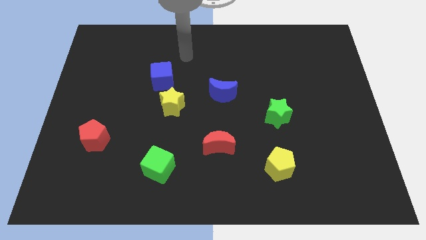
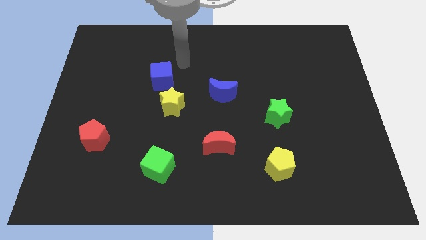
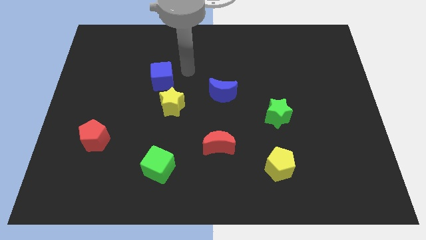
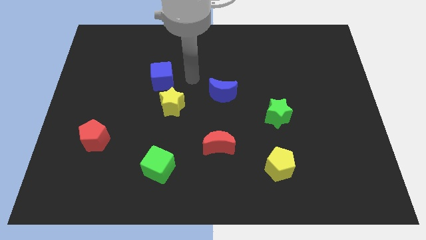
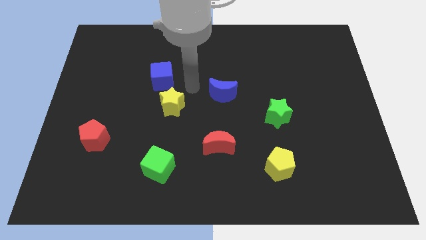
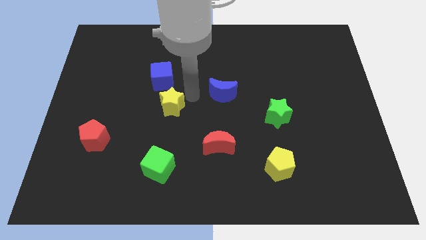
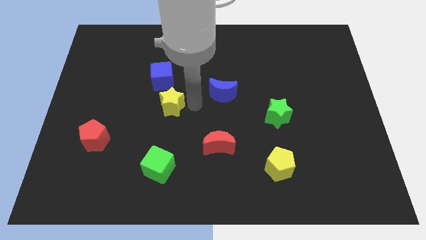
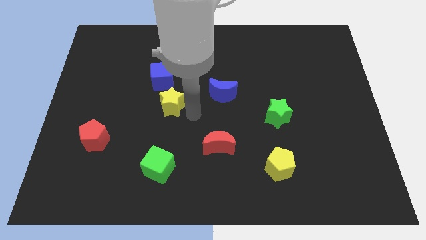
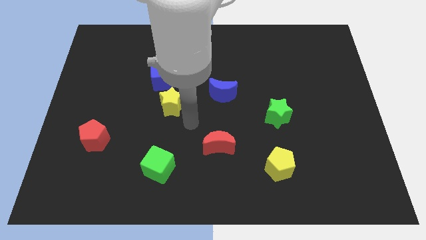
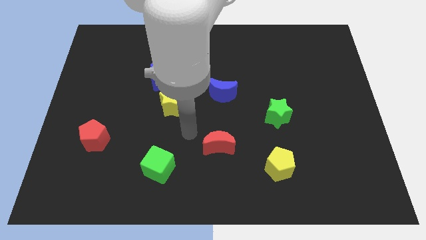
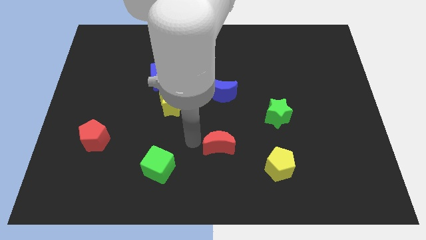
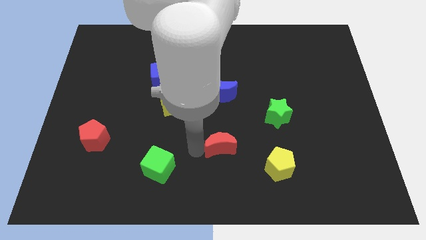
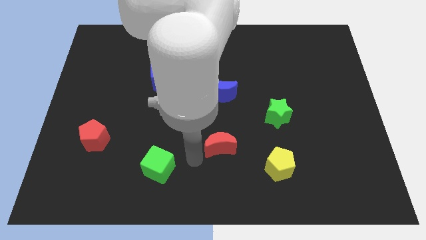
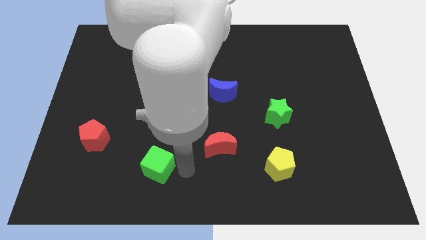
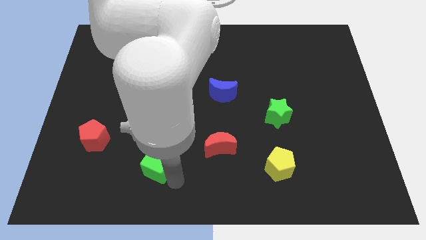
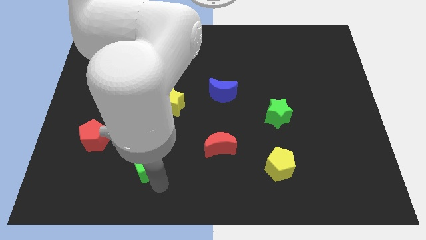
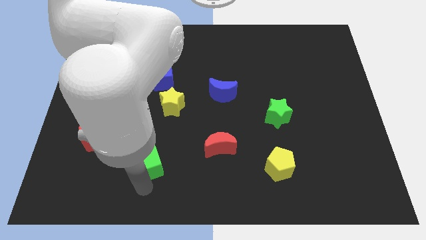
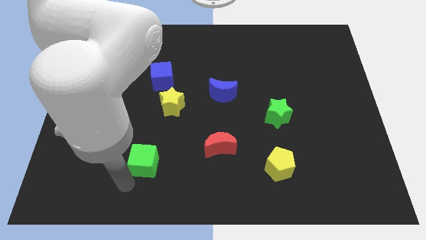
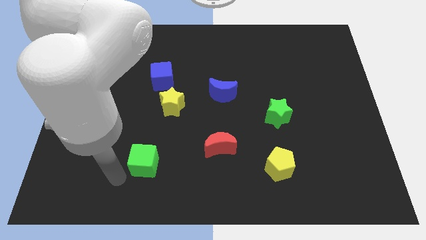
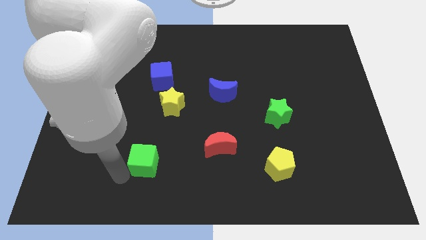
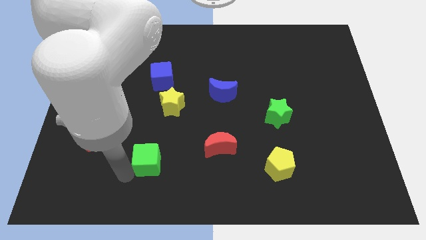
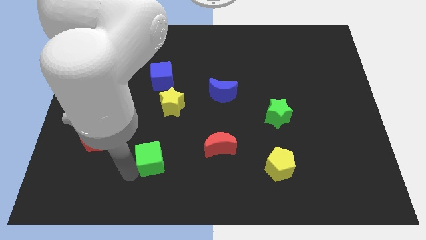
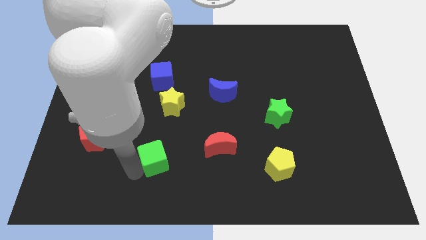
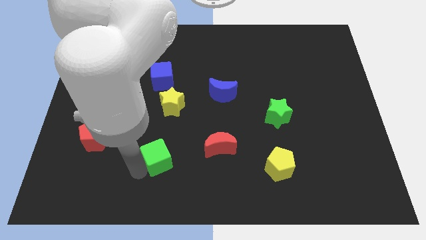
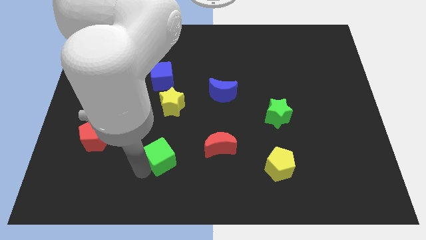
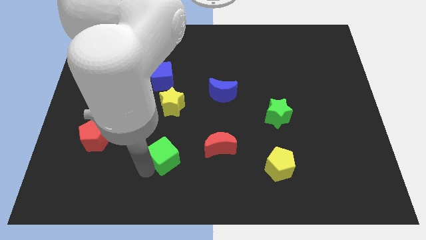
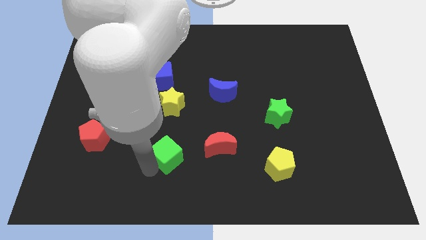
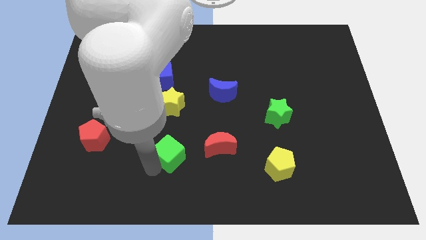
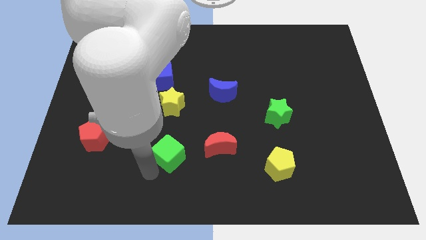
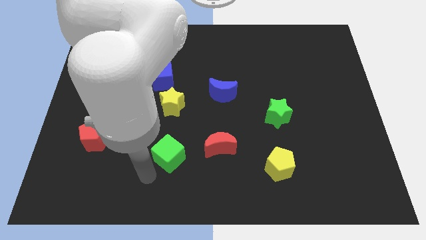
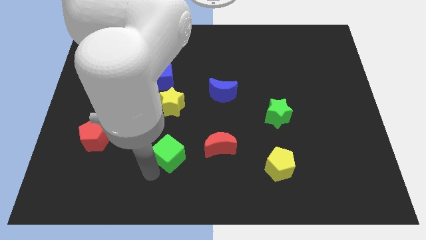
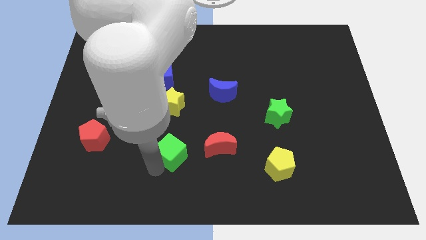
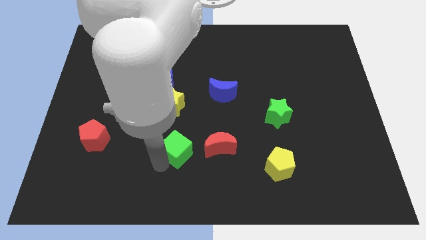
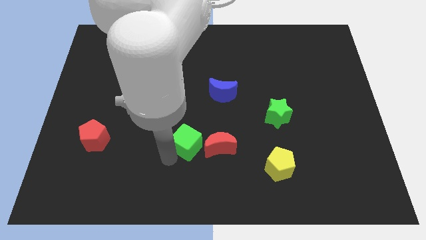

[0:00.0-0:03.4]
slide the green cube a bit upwards and to the right diagonally

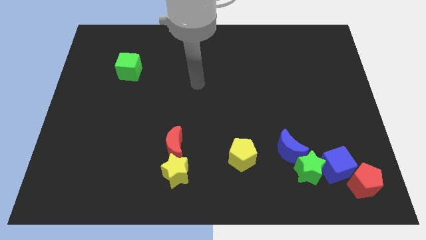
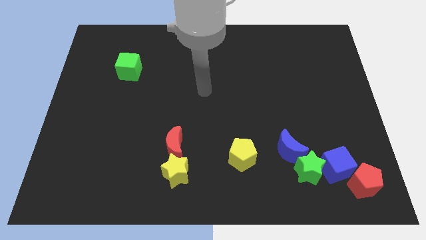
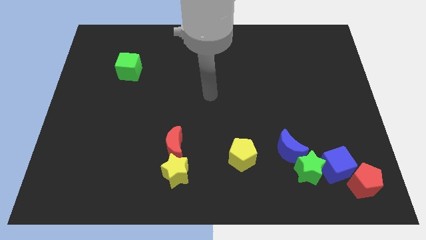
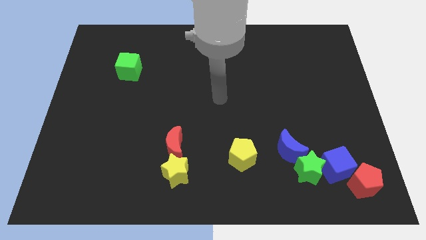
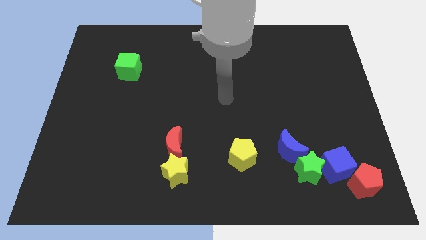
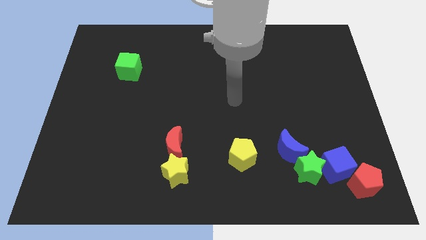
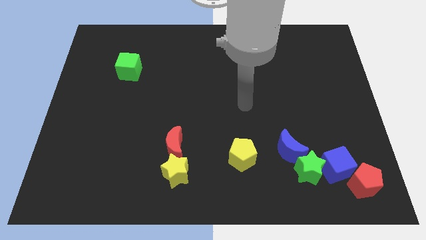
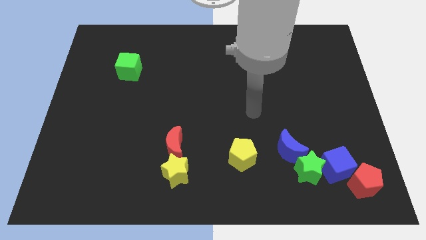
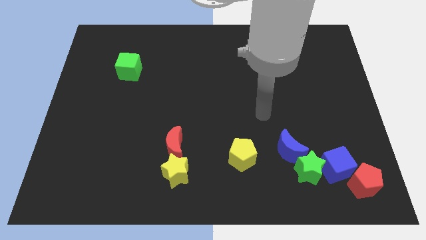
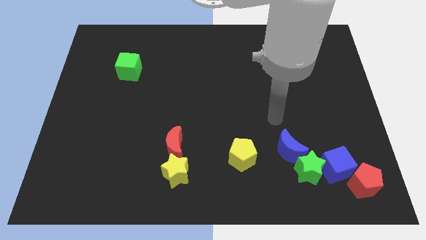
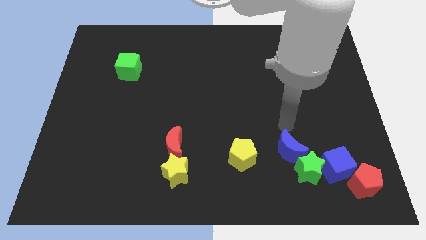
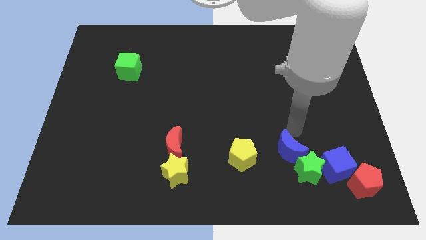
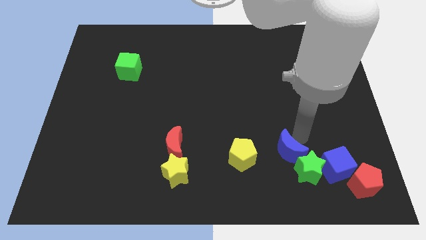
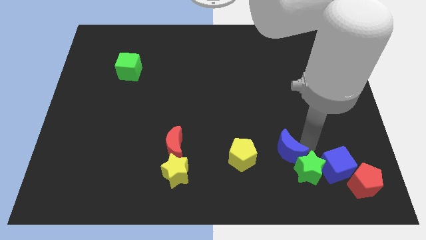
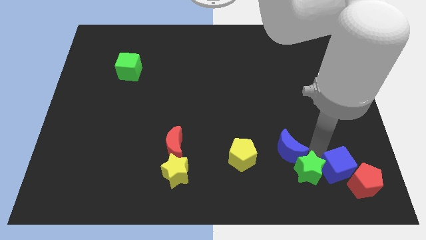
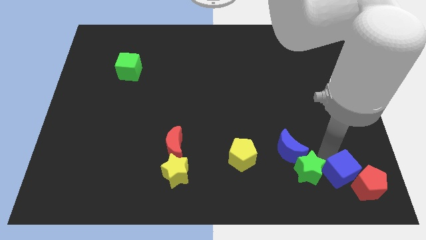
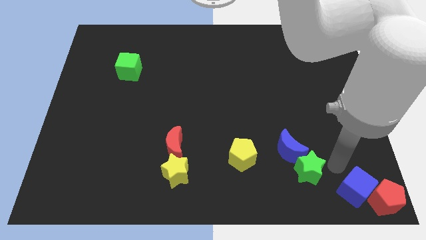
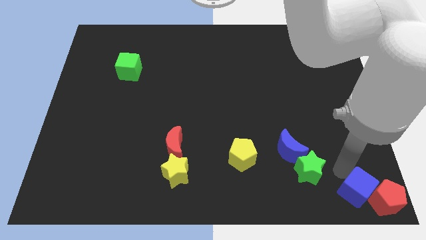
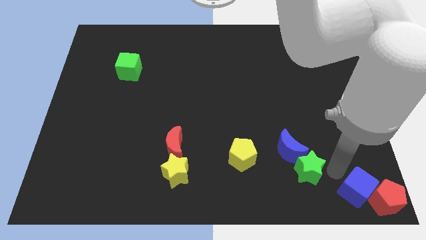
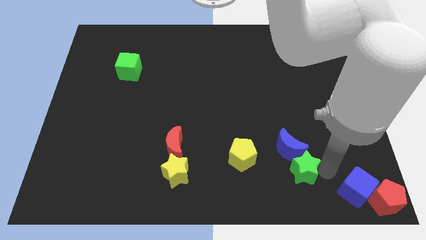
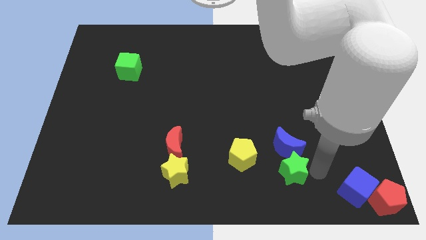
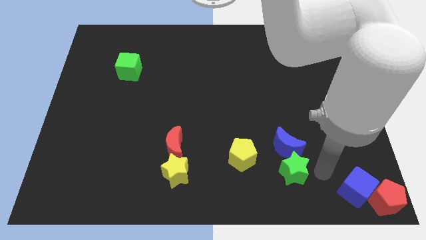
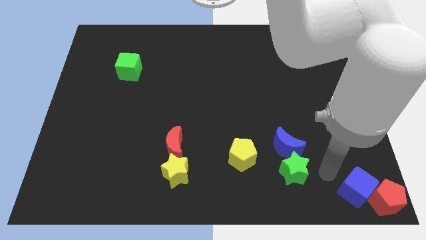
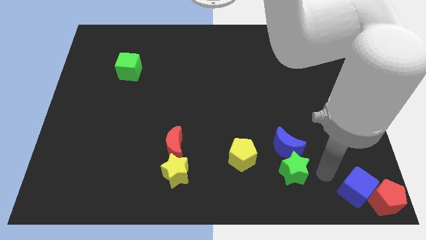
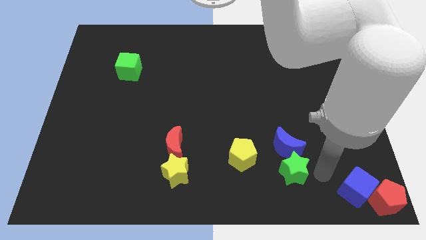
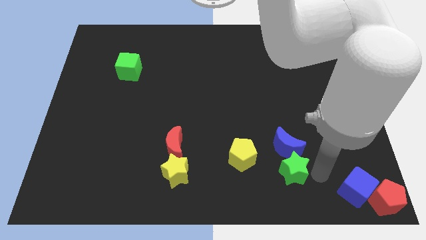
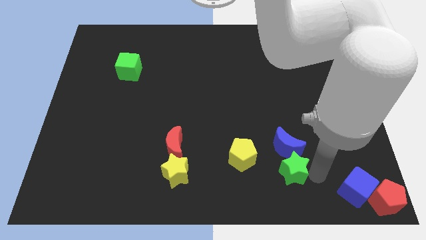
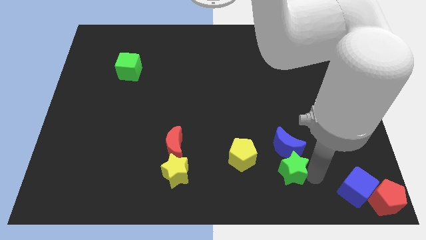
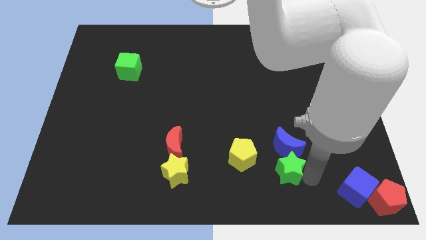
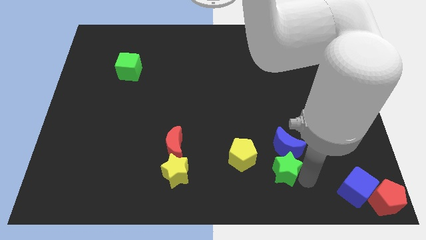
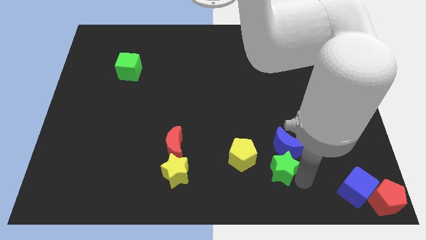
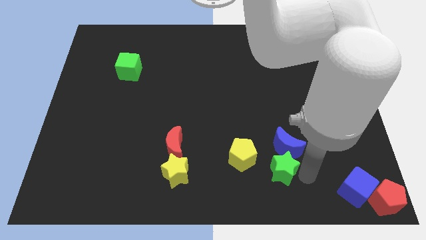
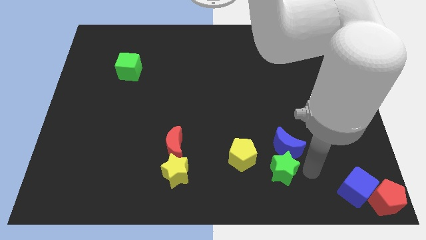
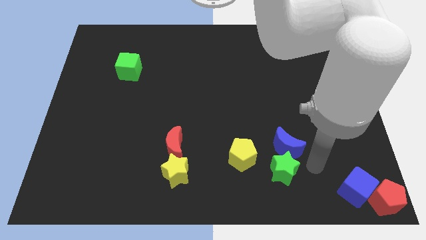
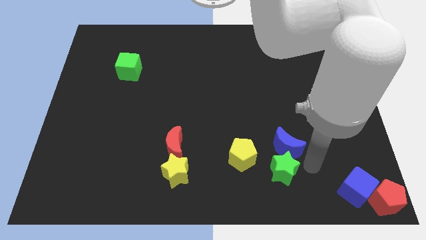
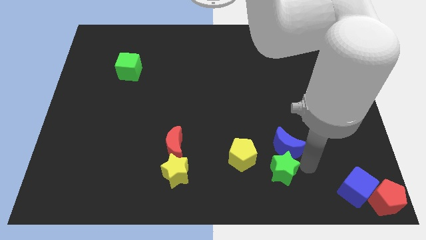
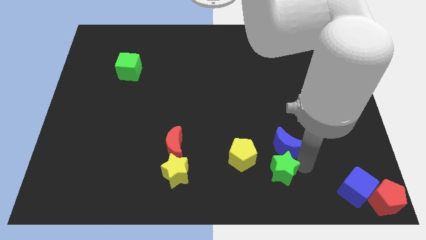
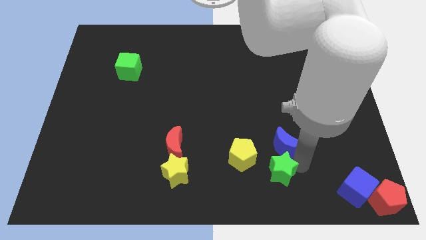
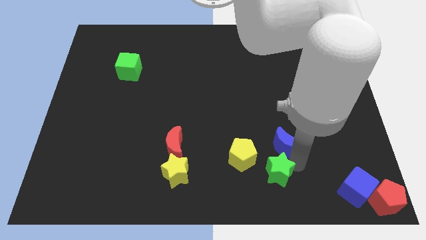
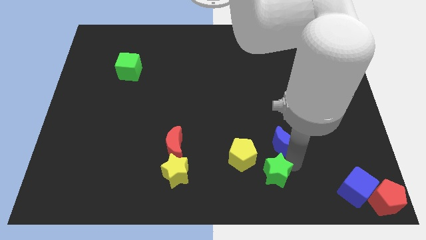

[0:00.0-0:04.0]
slightly move the green star left

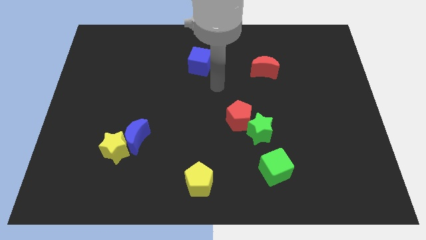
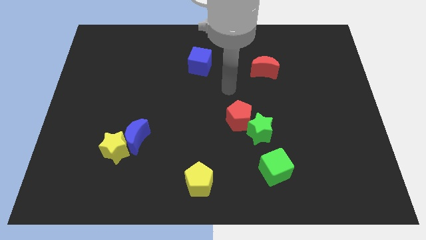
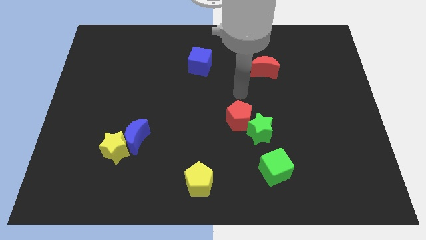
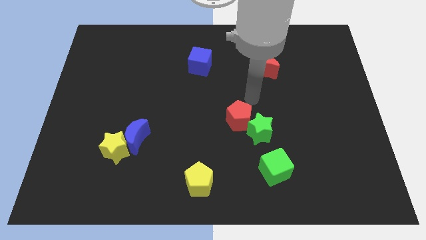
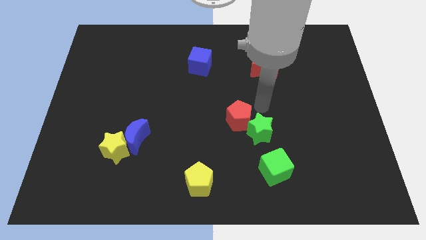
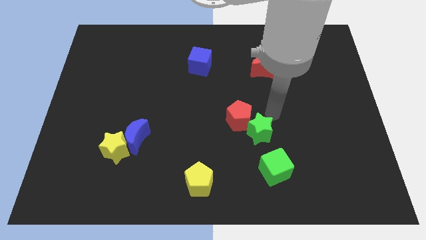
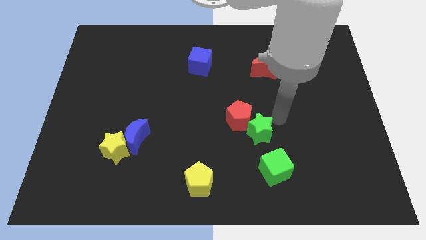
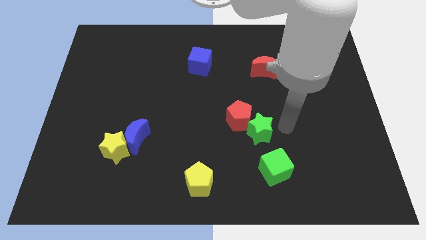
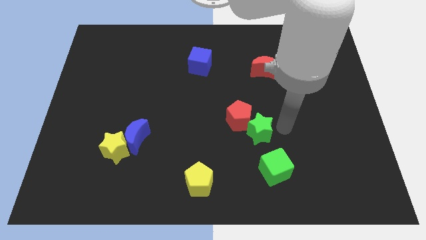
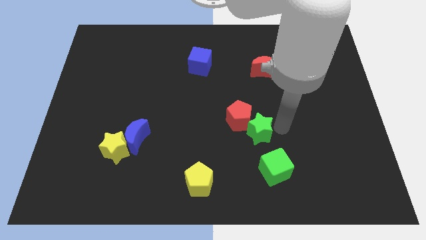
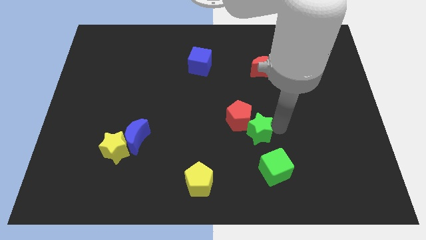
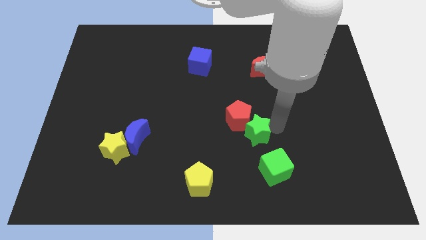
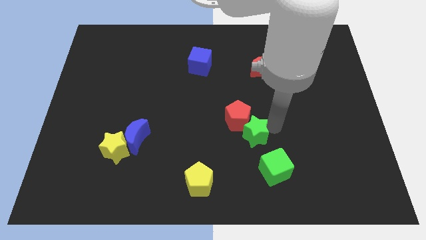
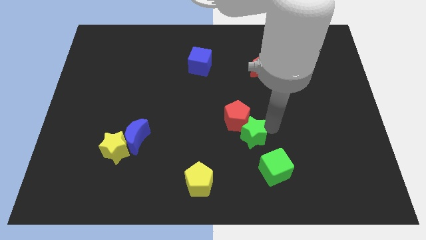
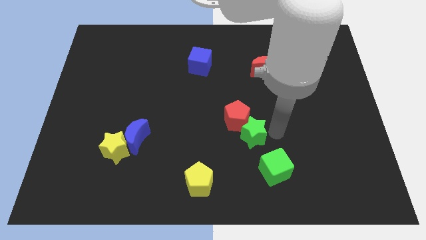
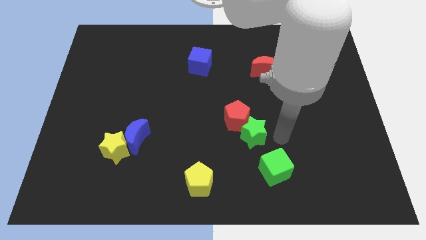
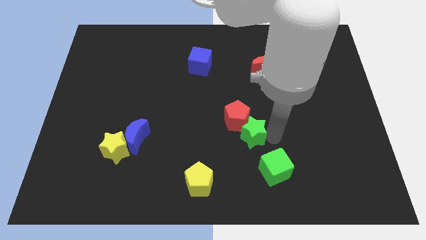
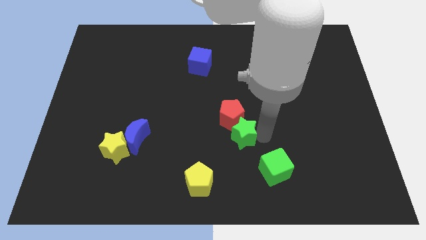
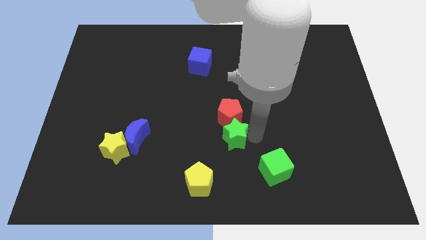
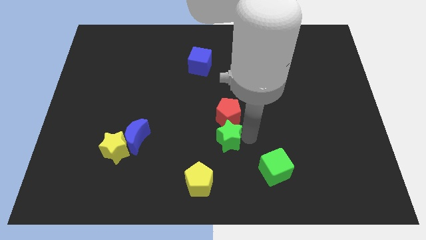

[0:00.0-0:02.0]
slightly slide the green star left
